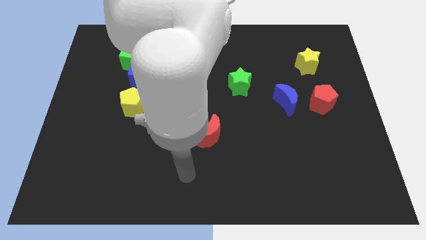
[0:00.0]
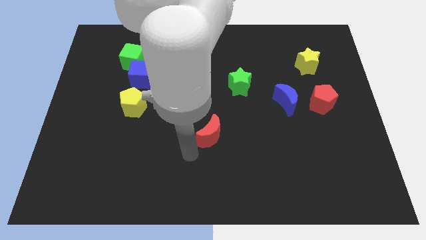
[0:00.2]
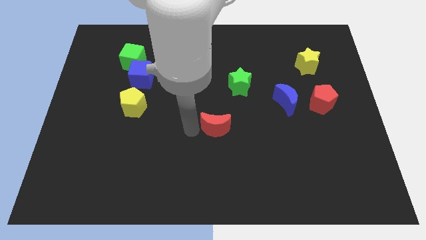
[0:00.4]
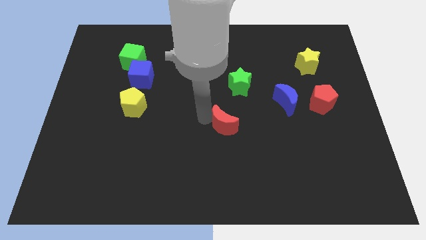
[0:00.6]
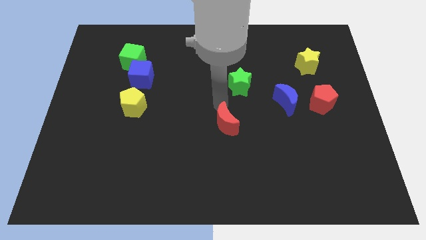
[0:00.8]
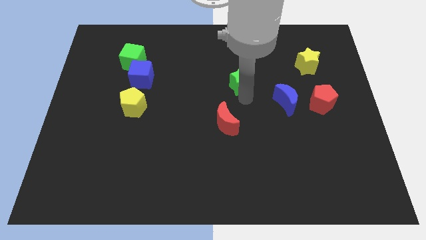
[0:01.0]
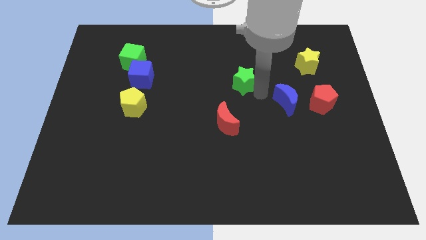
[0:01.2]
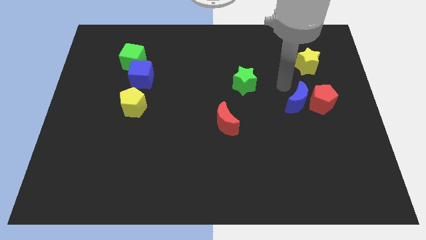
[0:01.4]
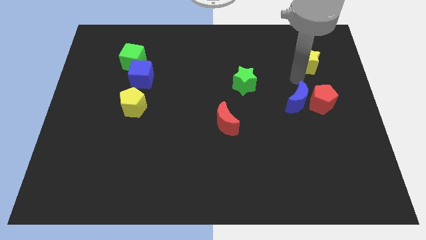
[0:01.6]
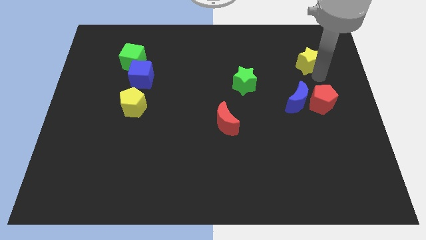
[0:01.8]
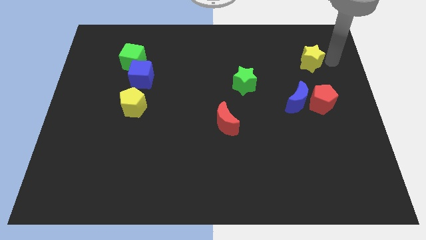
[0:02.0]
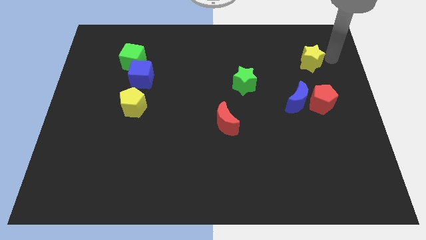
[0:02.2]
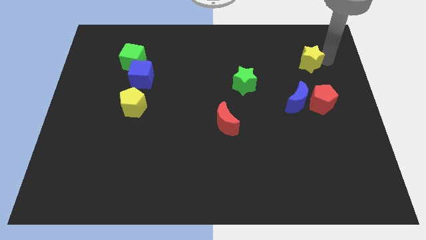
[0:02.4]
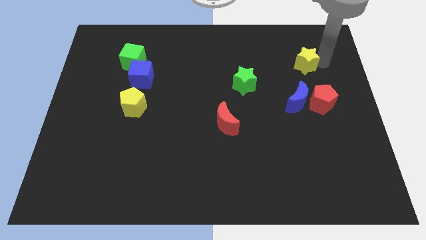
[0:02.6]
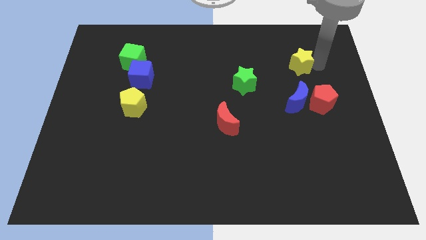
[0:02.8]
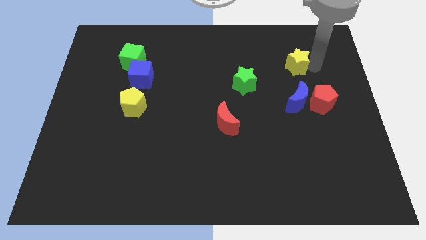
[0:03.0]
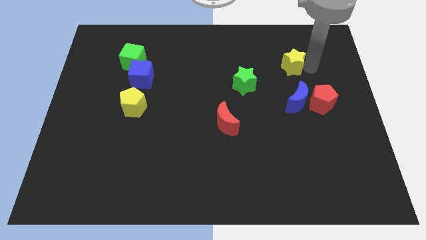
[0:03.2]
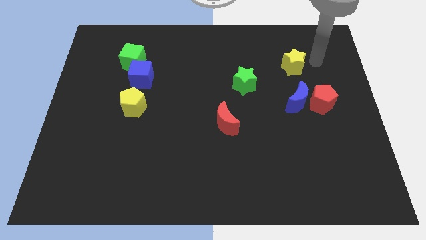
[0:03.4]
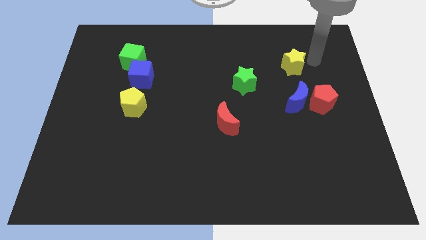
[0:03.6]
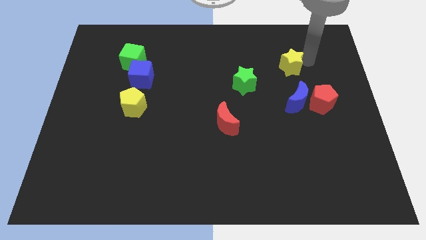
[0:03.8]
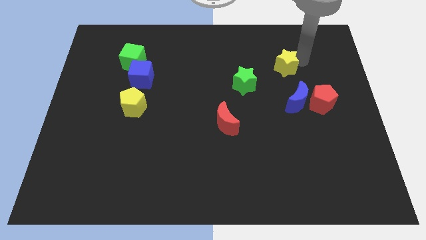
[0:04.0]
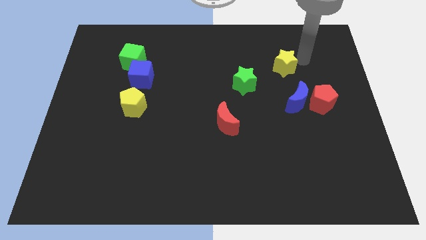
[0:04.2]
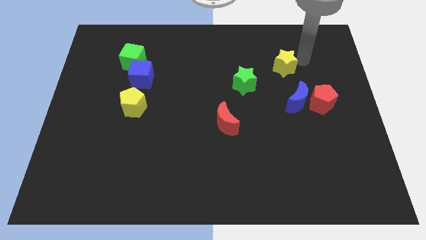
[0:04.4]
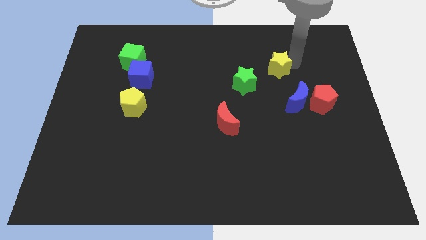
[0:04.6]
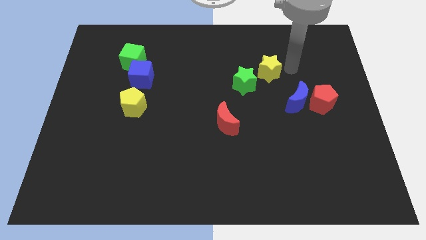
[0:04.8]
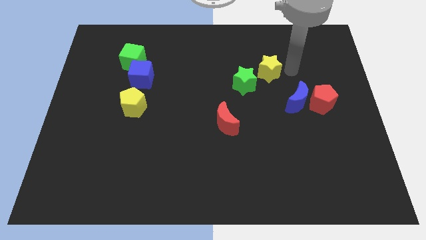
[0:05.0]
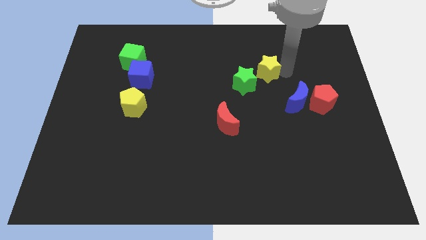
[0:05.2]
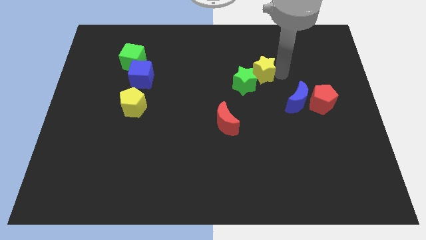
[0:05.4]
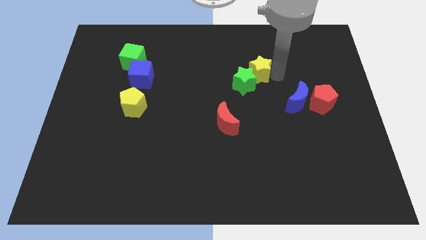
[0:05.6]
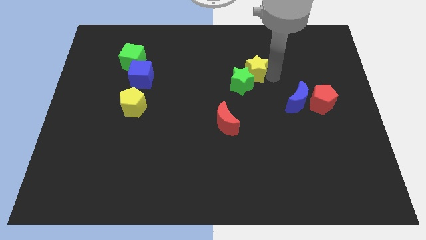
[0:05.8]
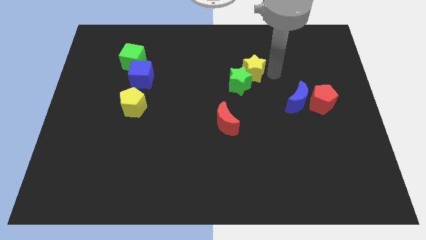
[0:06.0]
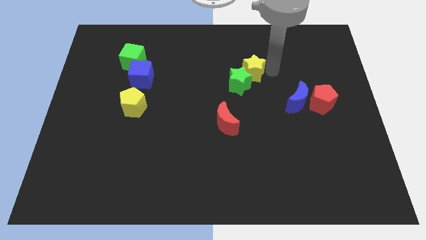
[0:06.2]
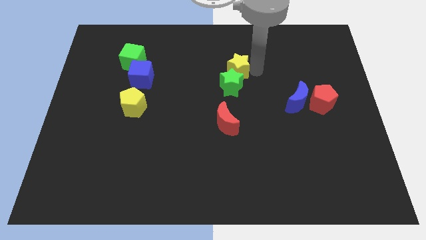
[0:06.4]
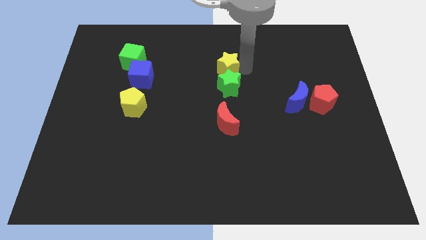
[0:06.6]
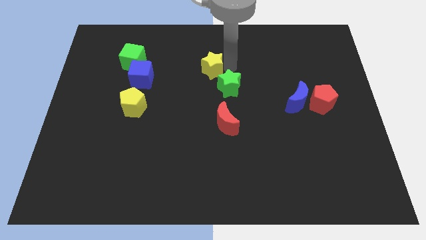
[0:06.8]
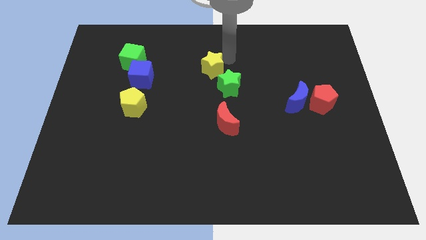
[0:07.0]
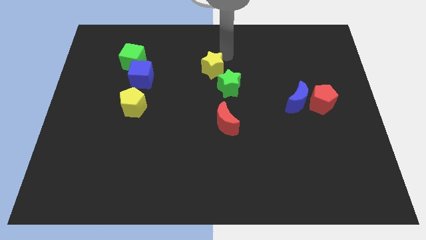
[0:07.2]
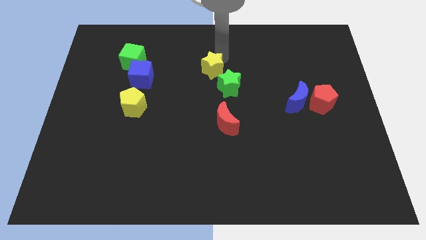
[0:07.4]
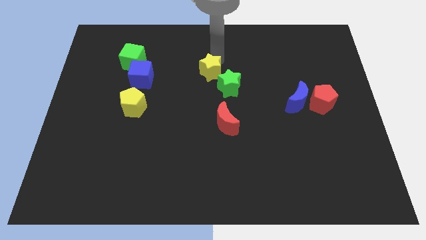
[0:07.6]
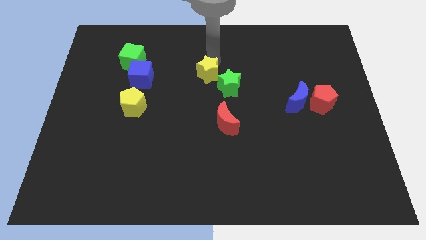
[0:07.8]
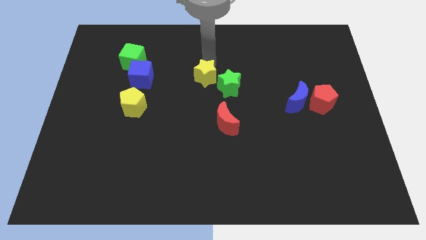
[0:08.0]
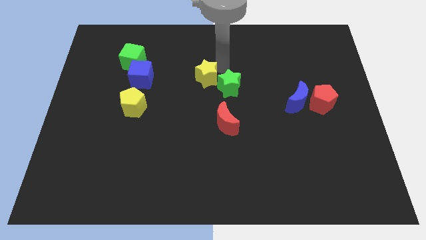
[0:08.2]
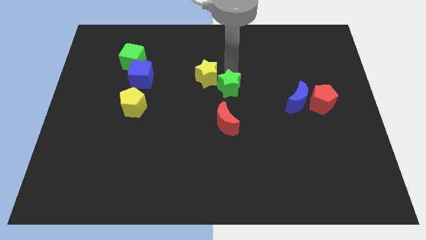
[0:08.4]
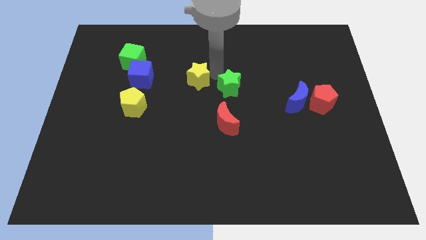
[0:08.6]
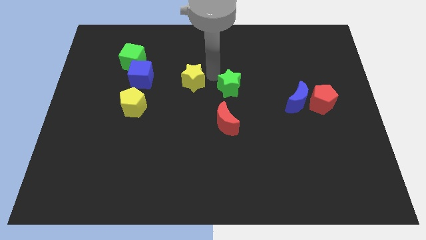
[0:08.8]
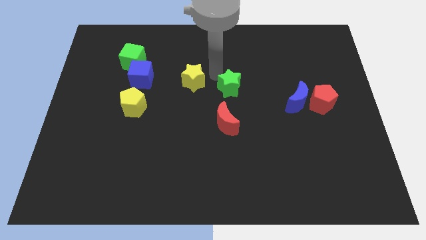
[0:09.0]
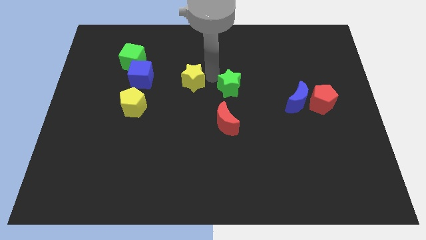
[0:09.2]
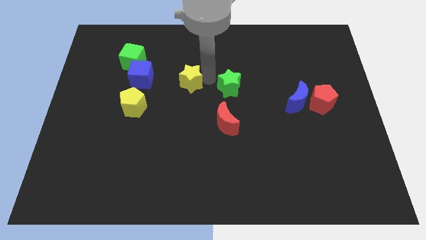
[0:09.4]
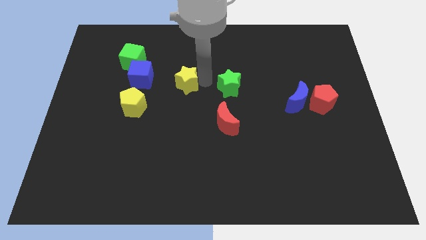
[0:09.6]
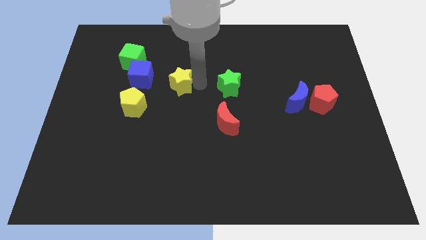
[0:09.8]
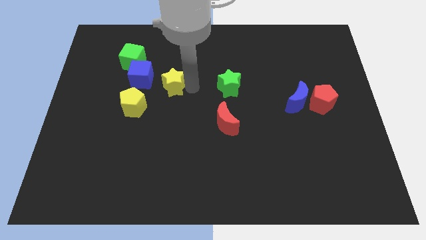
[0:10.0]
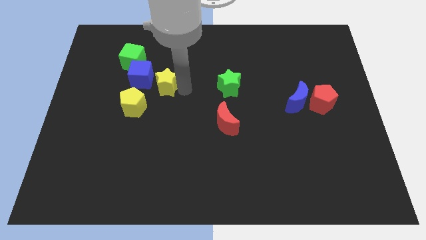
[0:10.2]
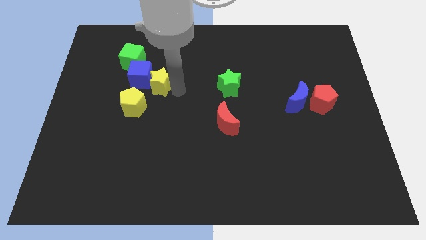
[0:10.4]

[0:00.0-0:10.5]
slide the yellow star to the blue cube

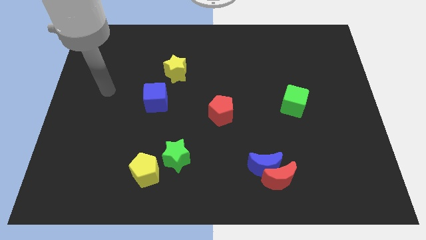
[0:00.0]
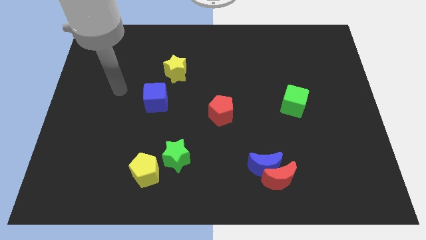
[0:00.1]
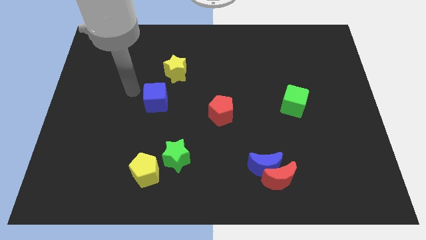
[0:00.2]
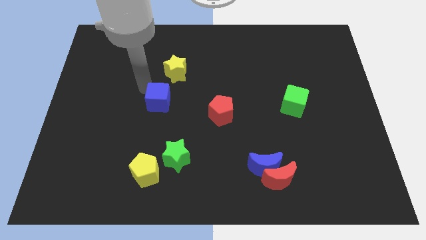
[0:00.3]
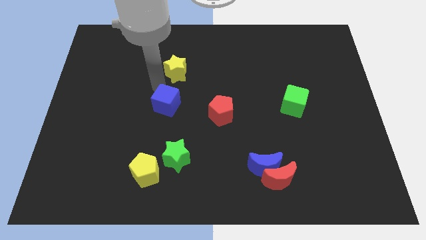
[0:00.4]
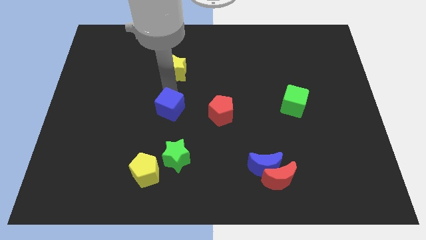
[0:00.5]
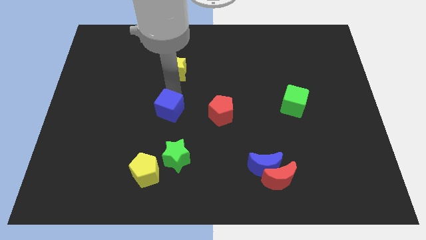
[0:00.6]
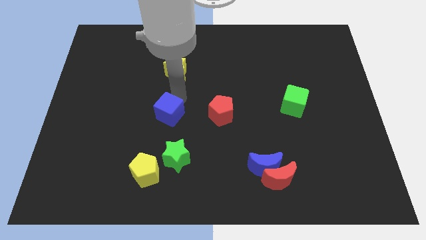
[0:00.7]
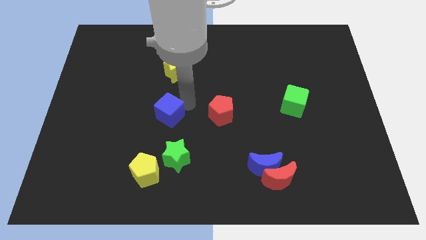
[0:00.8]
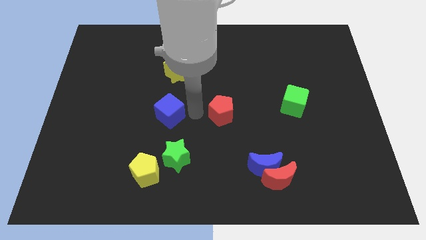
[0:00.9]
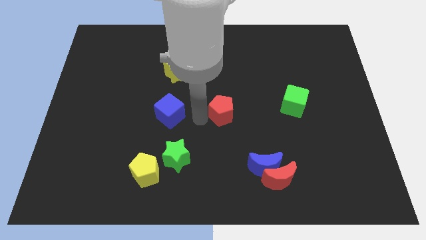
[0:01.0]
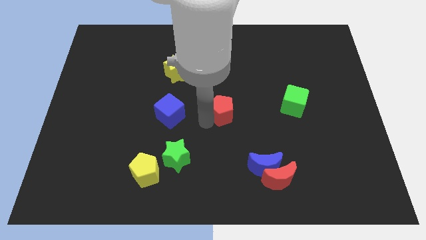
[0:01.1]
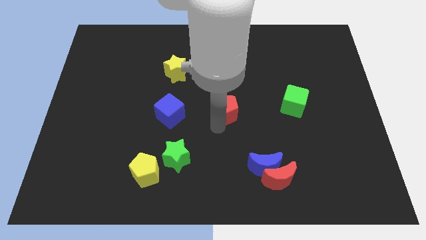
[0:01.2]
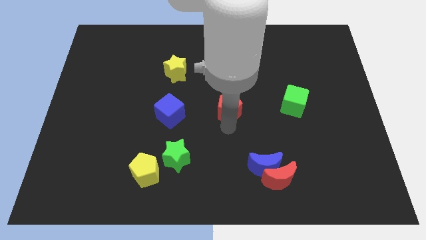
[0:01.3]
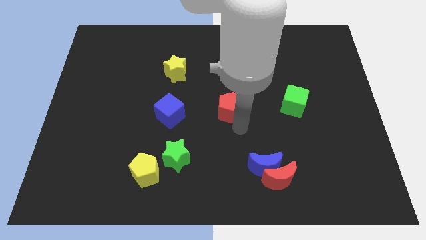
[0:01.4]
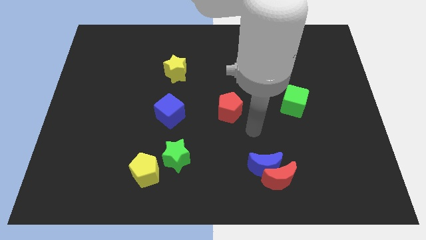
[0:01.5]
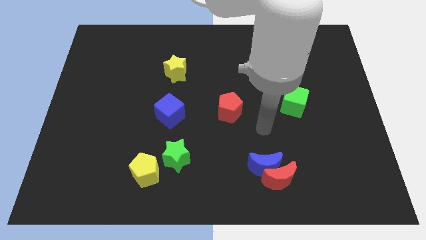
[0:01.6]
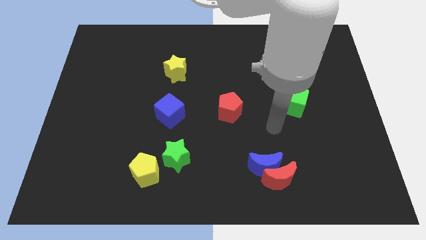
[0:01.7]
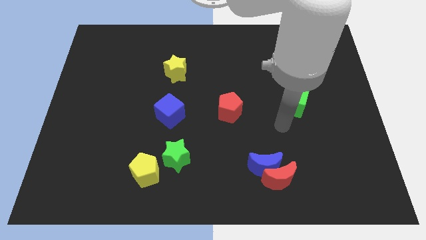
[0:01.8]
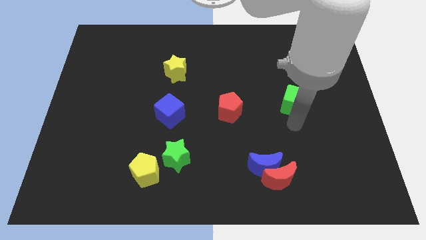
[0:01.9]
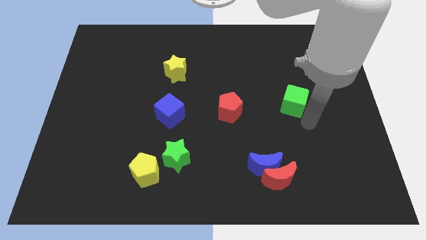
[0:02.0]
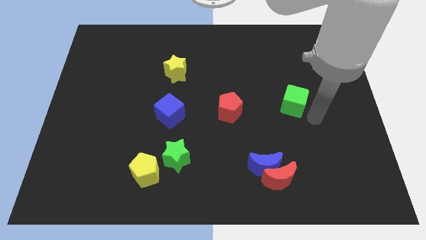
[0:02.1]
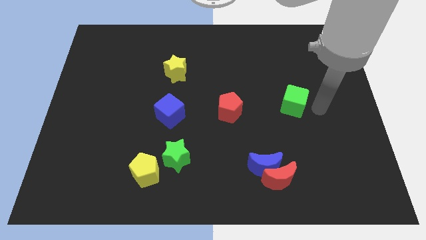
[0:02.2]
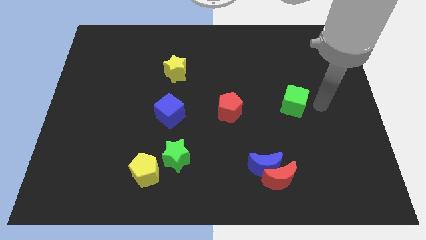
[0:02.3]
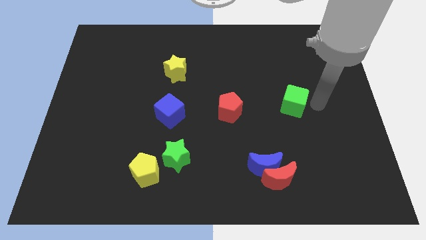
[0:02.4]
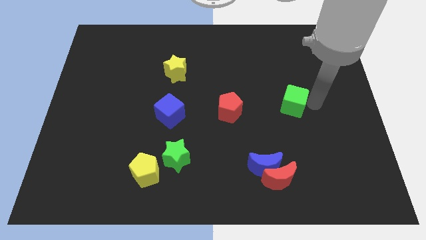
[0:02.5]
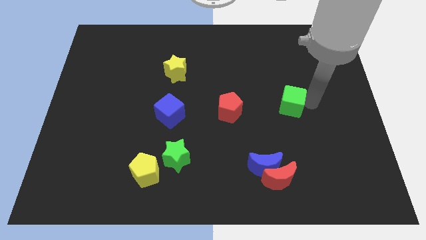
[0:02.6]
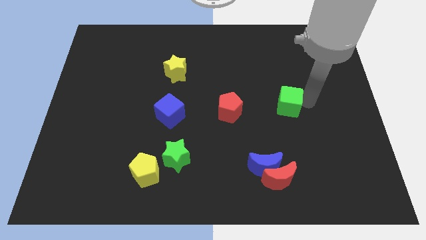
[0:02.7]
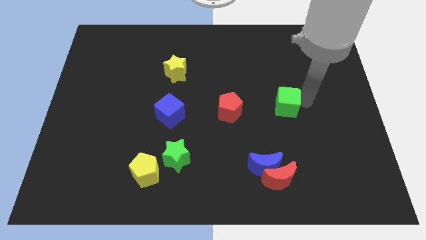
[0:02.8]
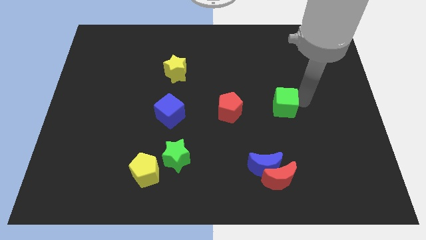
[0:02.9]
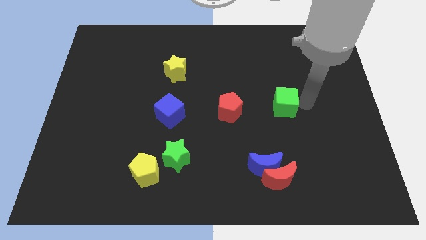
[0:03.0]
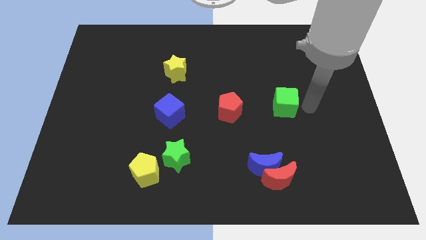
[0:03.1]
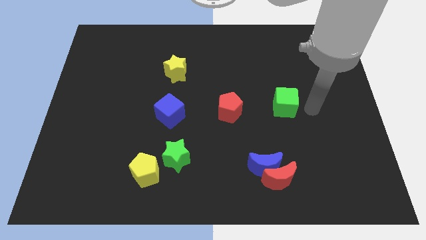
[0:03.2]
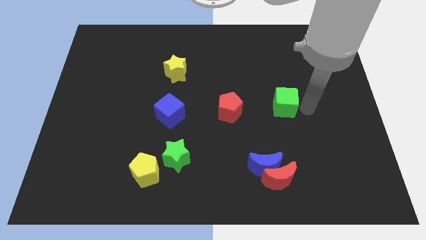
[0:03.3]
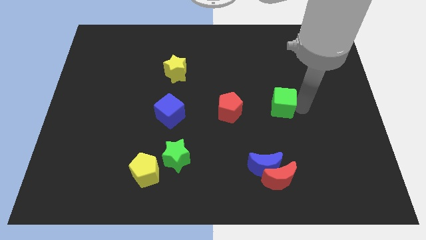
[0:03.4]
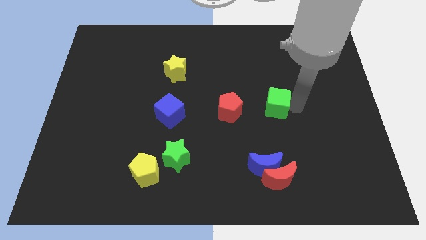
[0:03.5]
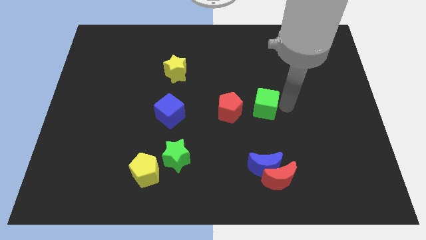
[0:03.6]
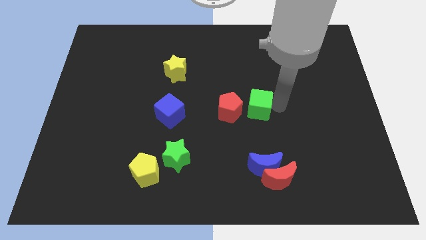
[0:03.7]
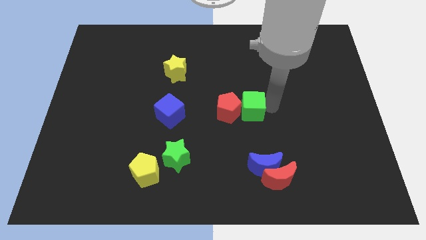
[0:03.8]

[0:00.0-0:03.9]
move the green cube to the red pentagon
